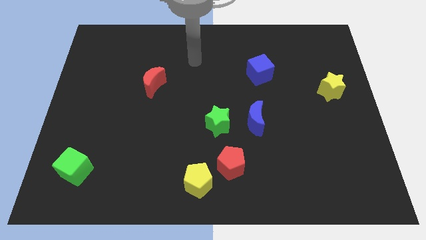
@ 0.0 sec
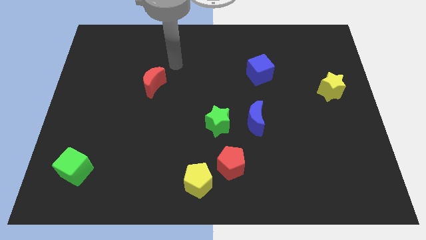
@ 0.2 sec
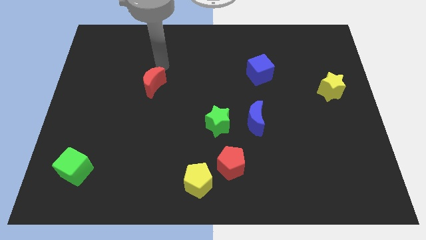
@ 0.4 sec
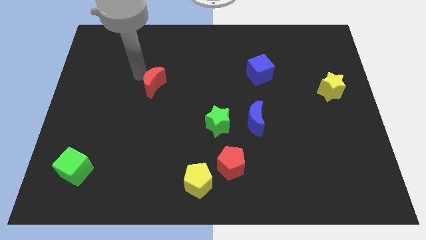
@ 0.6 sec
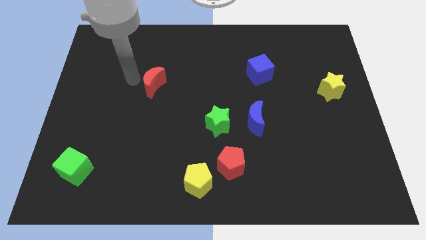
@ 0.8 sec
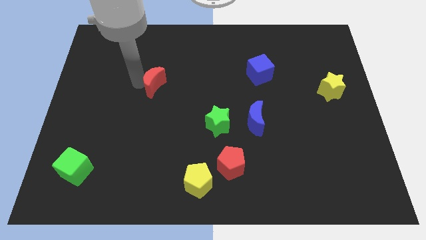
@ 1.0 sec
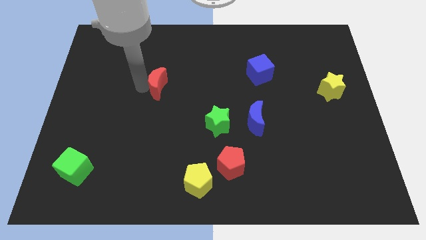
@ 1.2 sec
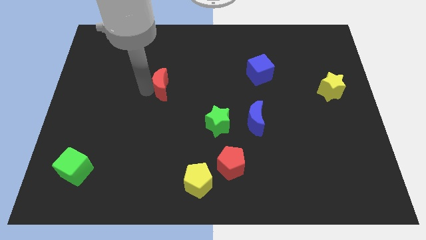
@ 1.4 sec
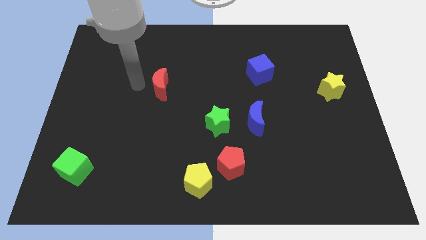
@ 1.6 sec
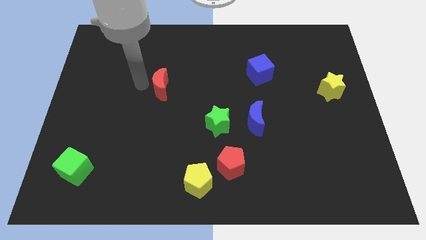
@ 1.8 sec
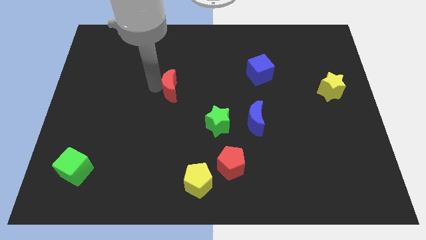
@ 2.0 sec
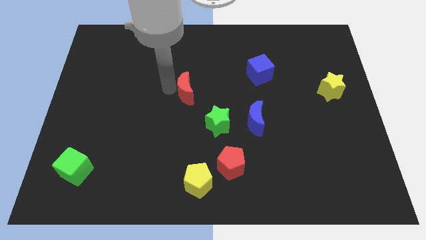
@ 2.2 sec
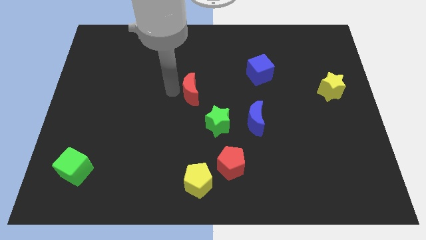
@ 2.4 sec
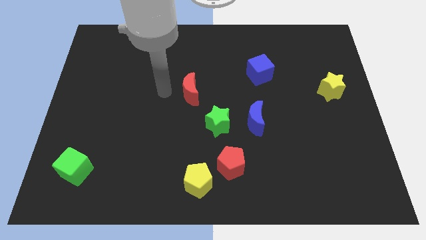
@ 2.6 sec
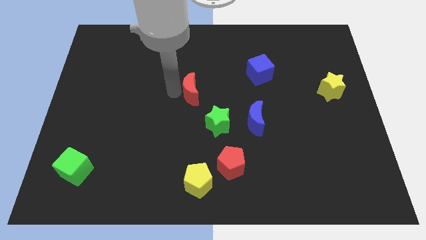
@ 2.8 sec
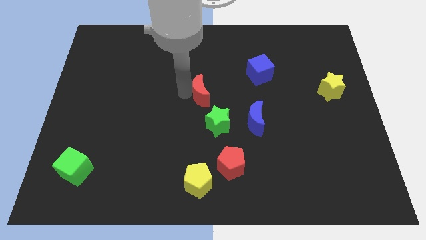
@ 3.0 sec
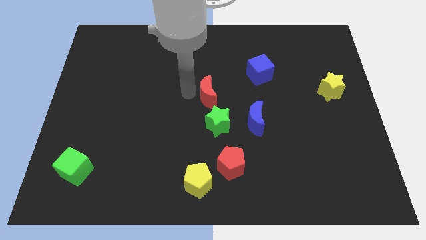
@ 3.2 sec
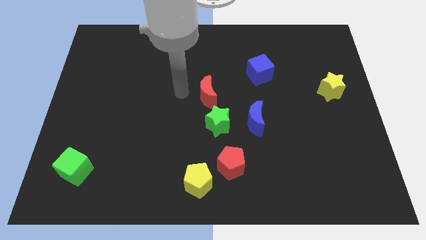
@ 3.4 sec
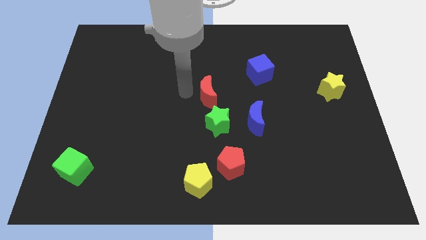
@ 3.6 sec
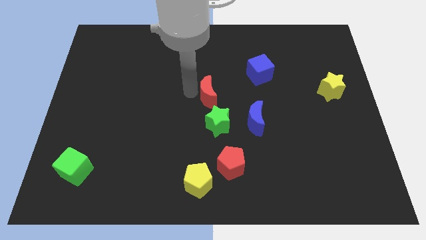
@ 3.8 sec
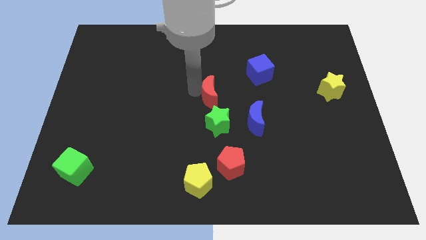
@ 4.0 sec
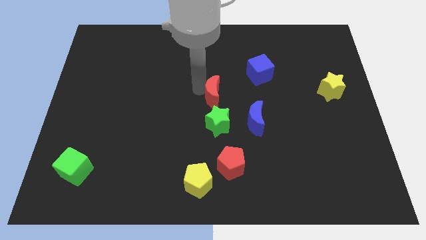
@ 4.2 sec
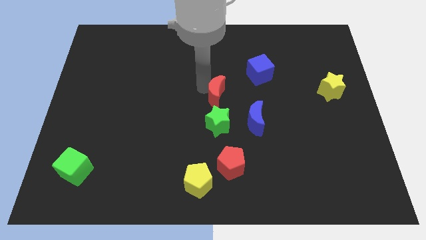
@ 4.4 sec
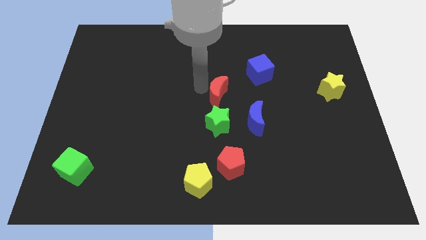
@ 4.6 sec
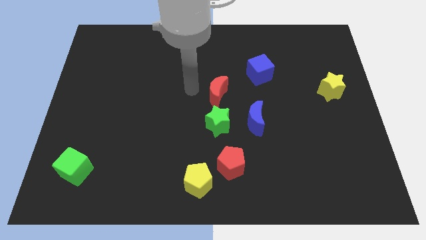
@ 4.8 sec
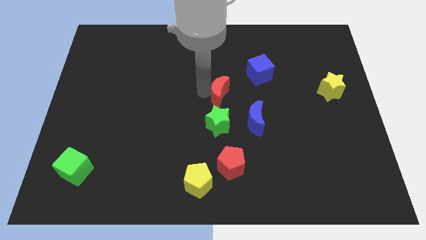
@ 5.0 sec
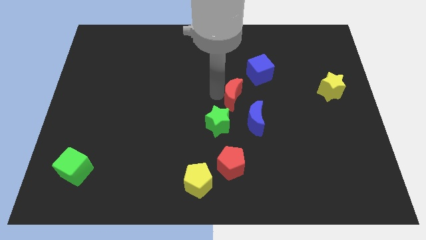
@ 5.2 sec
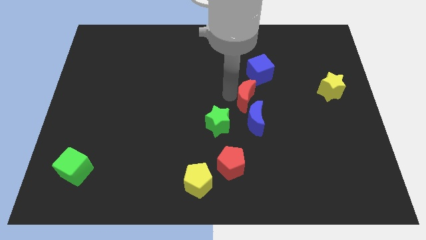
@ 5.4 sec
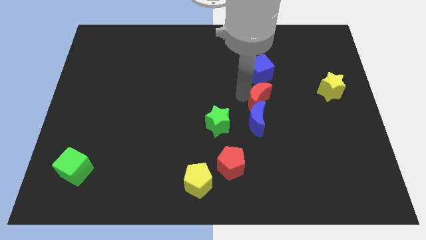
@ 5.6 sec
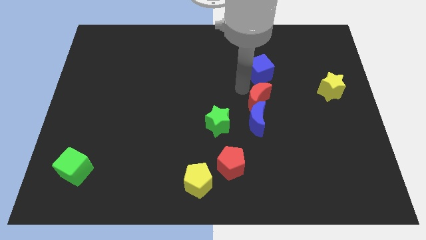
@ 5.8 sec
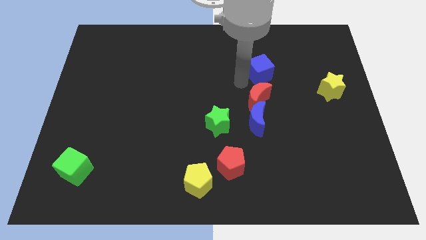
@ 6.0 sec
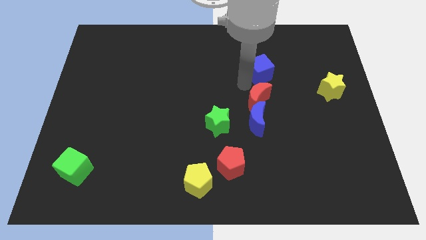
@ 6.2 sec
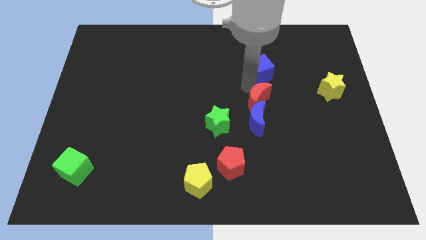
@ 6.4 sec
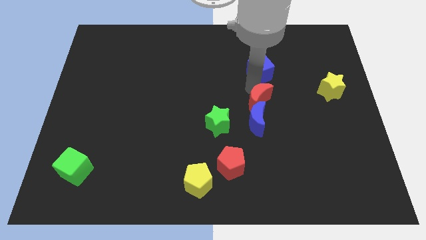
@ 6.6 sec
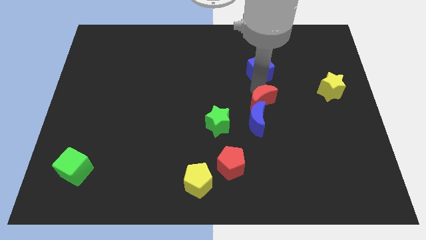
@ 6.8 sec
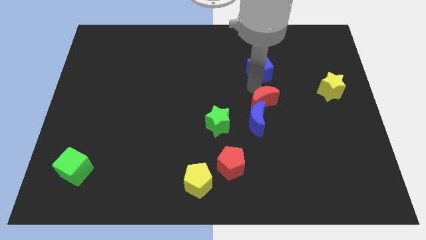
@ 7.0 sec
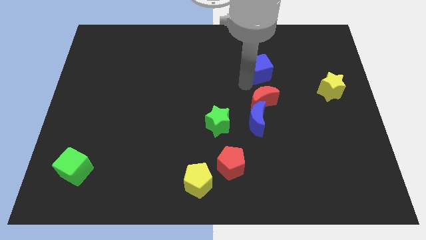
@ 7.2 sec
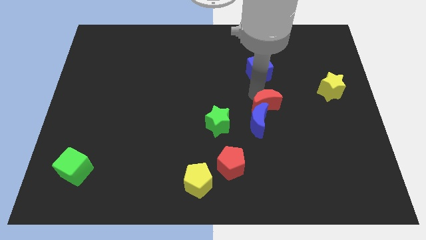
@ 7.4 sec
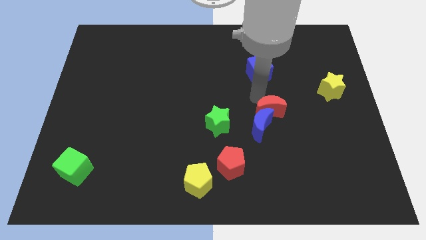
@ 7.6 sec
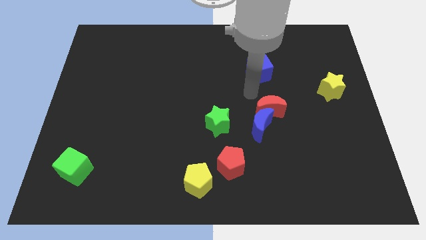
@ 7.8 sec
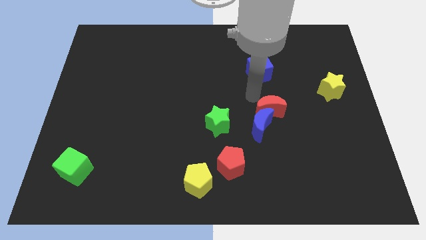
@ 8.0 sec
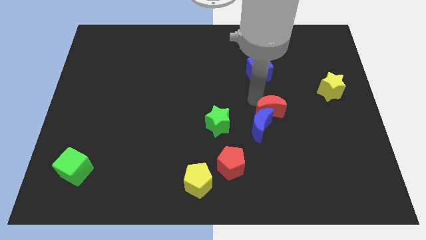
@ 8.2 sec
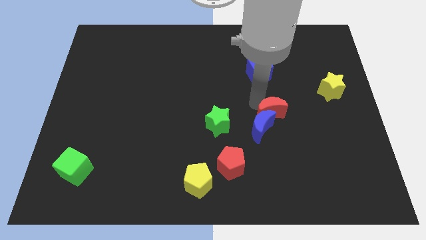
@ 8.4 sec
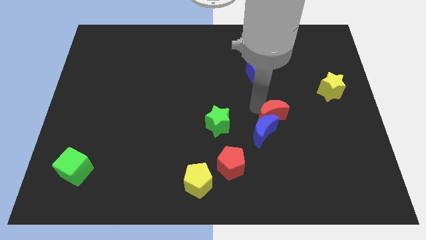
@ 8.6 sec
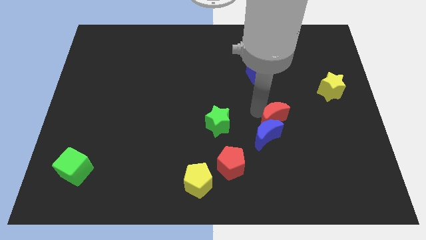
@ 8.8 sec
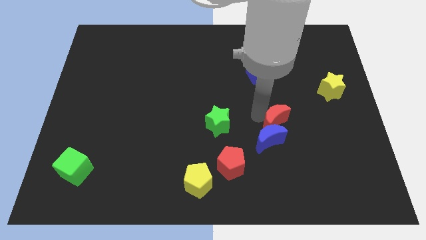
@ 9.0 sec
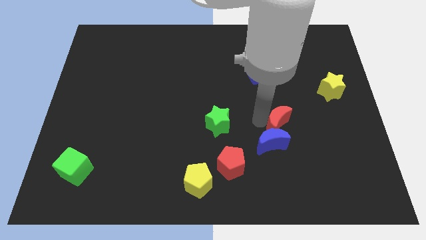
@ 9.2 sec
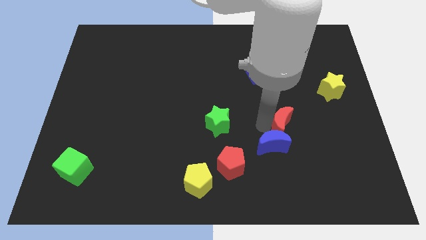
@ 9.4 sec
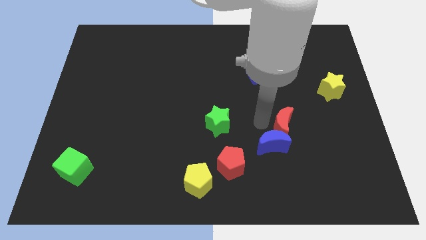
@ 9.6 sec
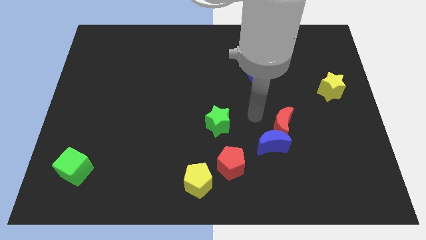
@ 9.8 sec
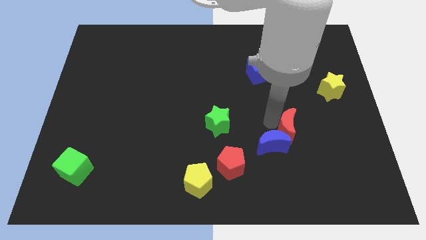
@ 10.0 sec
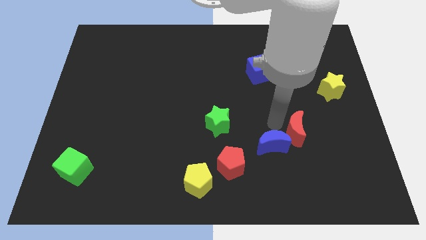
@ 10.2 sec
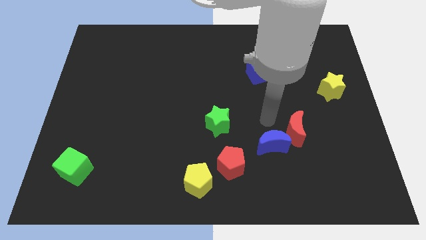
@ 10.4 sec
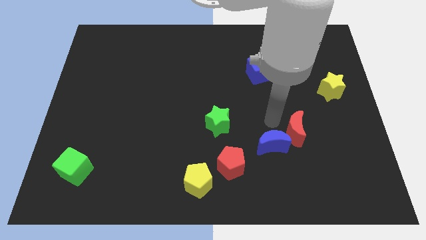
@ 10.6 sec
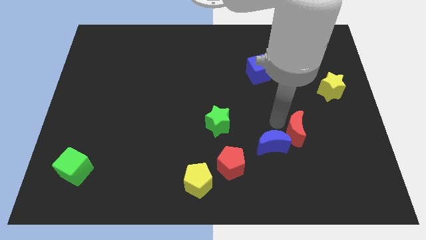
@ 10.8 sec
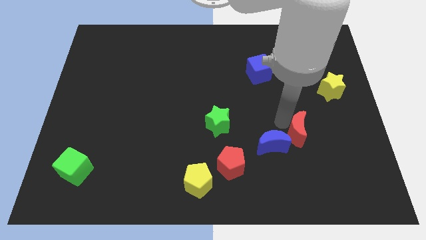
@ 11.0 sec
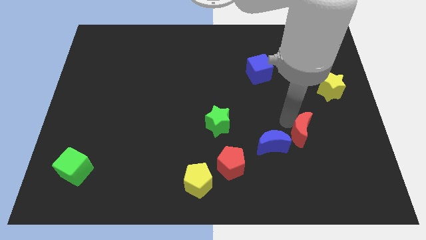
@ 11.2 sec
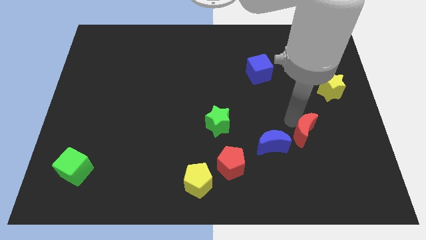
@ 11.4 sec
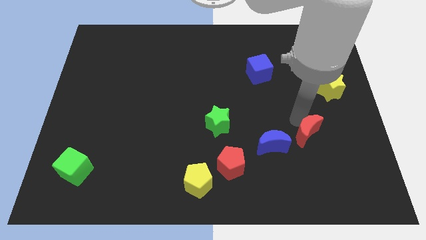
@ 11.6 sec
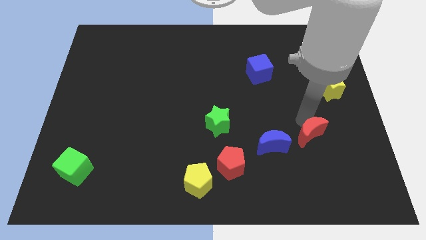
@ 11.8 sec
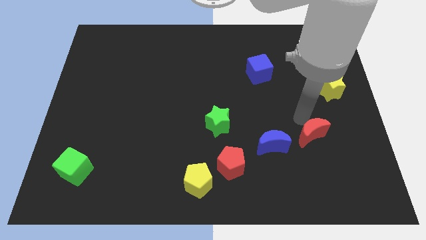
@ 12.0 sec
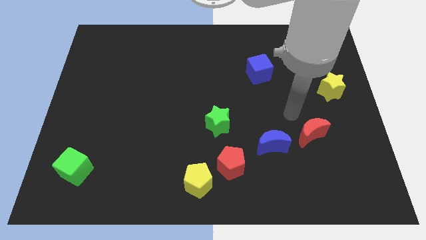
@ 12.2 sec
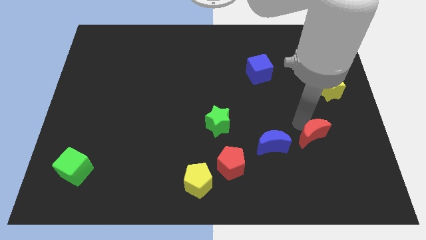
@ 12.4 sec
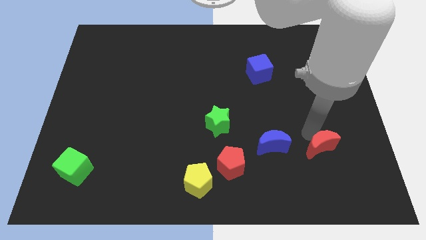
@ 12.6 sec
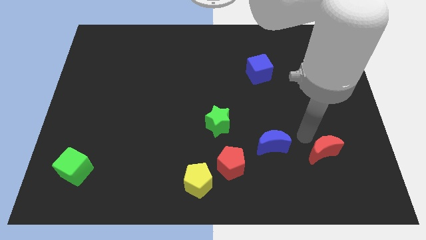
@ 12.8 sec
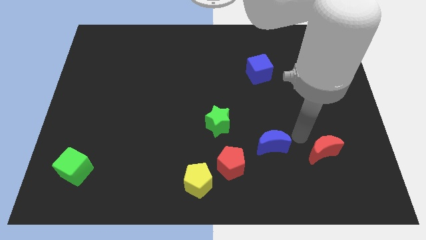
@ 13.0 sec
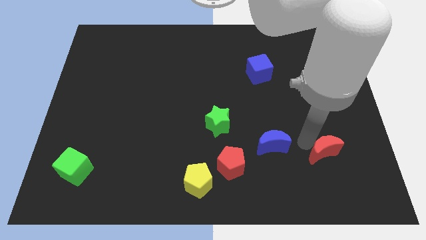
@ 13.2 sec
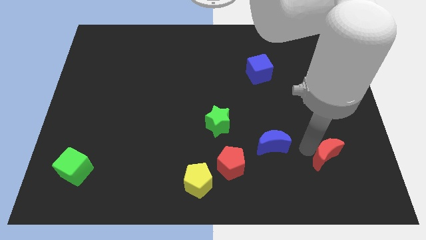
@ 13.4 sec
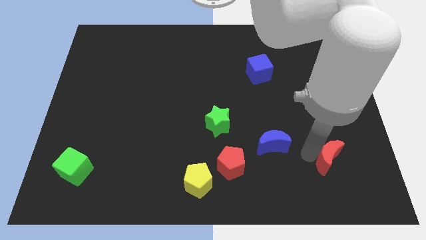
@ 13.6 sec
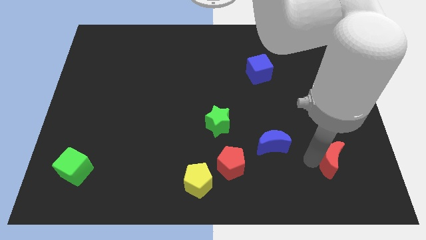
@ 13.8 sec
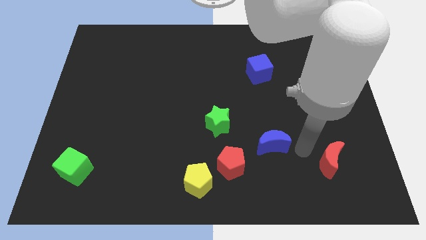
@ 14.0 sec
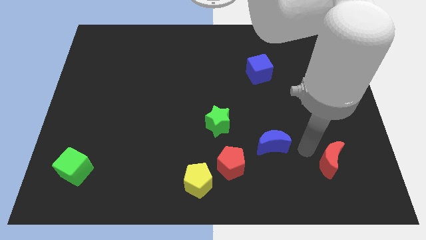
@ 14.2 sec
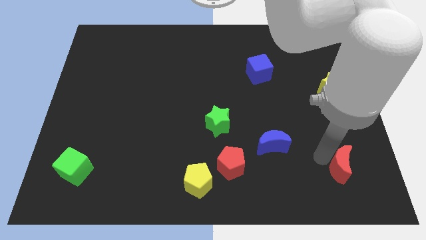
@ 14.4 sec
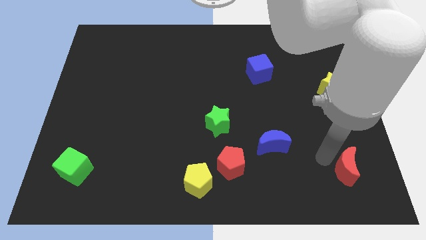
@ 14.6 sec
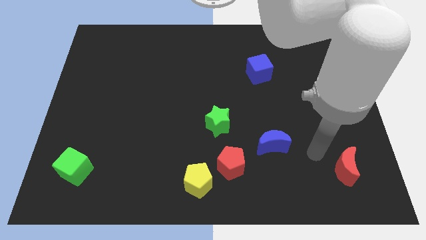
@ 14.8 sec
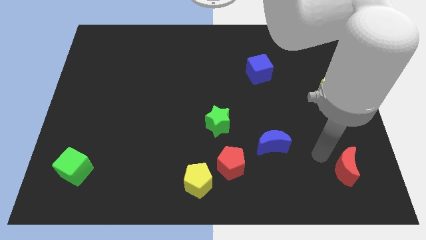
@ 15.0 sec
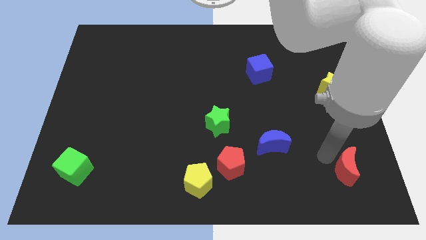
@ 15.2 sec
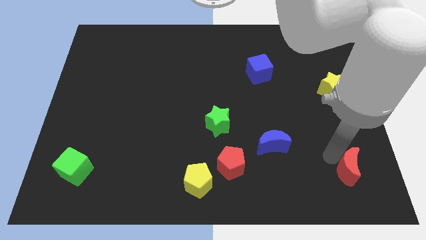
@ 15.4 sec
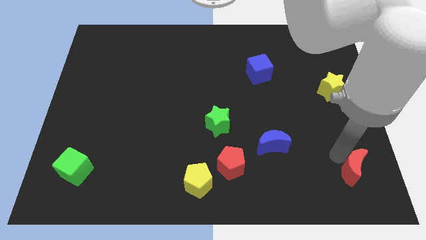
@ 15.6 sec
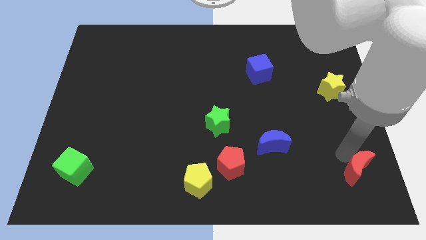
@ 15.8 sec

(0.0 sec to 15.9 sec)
put the red moon to the lower right corner
